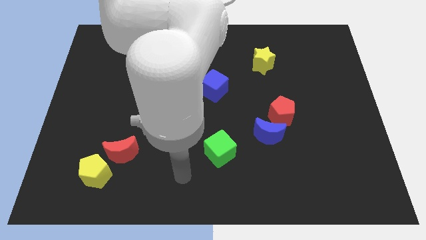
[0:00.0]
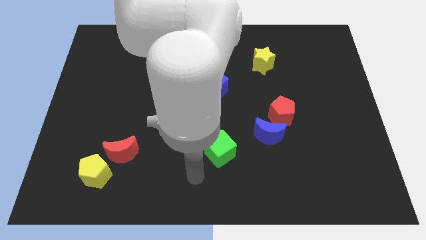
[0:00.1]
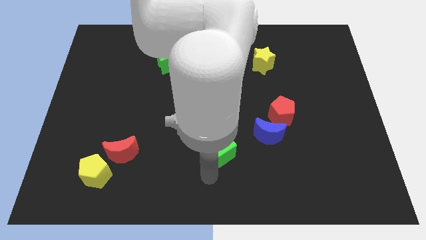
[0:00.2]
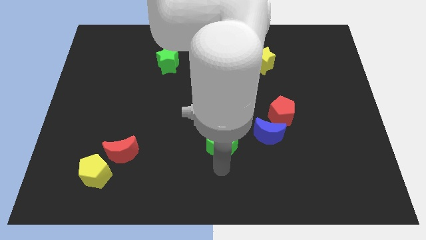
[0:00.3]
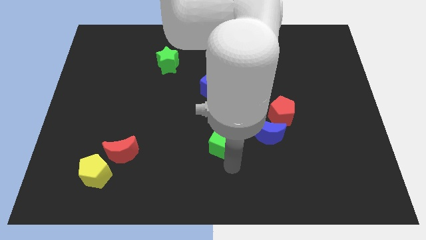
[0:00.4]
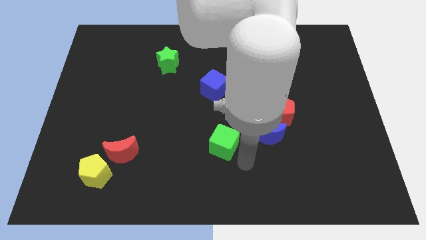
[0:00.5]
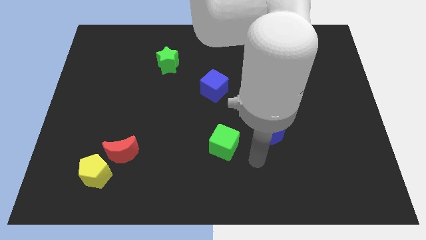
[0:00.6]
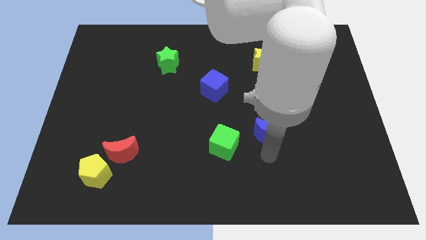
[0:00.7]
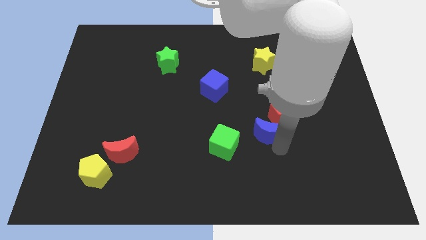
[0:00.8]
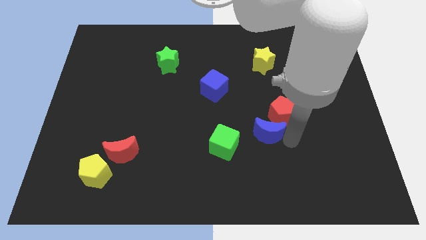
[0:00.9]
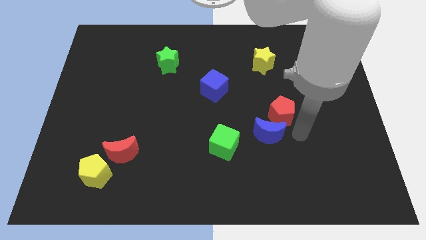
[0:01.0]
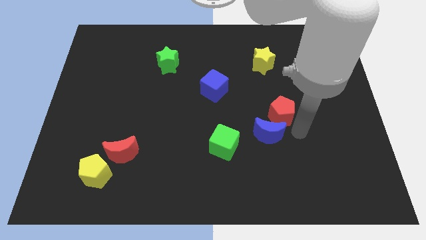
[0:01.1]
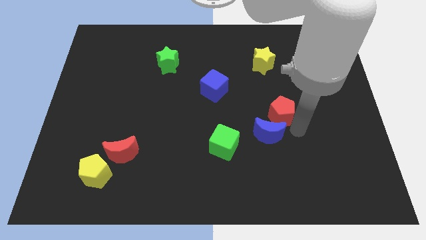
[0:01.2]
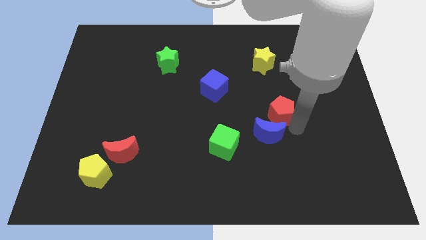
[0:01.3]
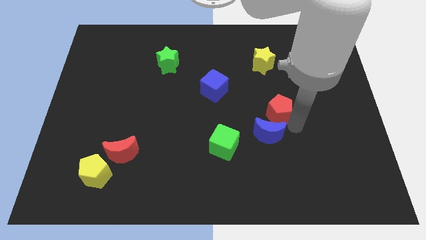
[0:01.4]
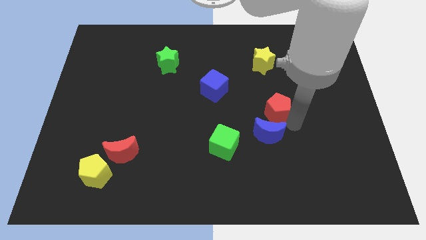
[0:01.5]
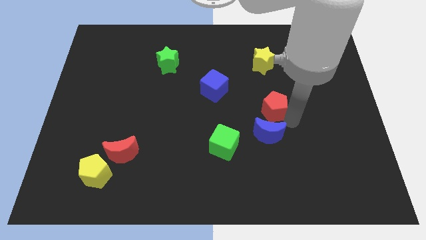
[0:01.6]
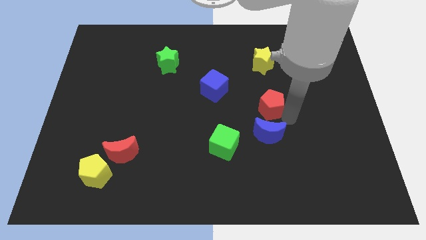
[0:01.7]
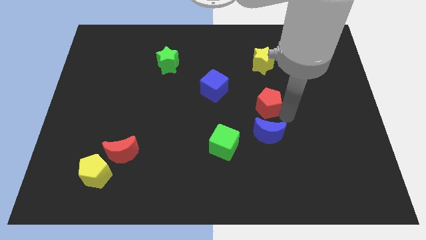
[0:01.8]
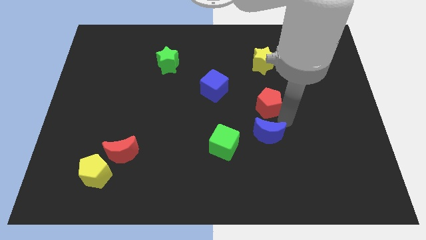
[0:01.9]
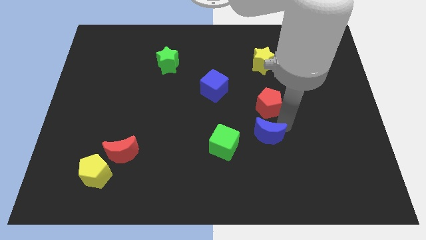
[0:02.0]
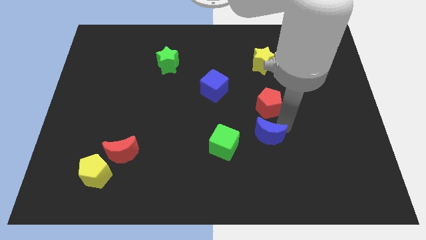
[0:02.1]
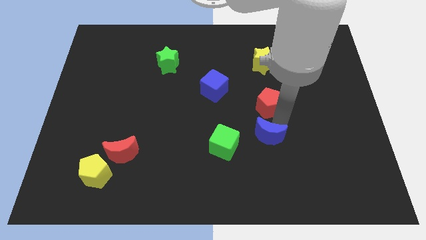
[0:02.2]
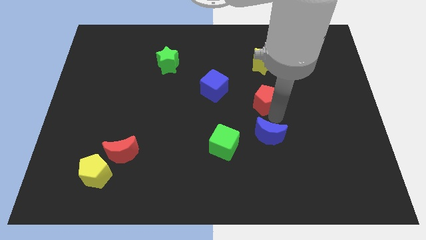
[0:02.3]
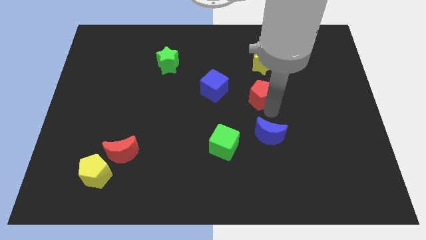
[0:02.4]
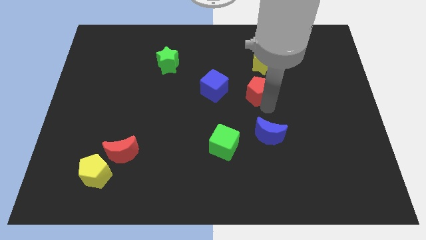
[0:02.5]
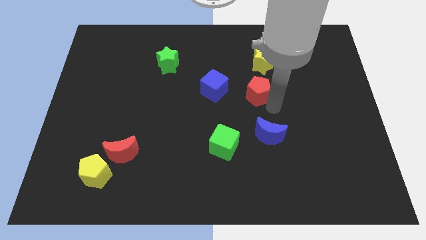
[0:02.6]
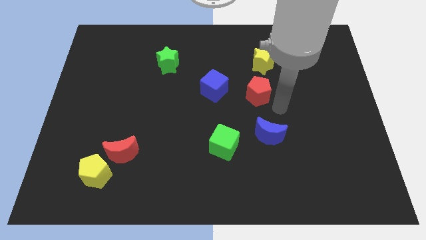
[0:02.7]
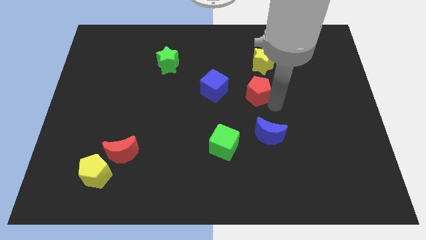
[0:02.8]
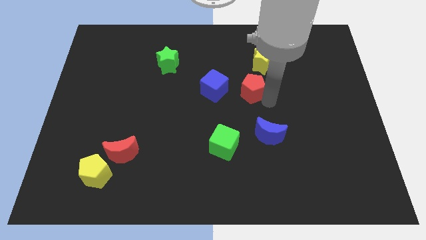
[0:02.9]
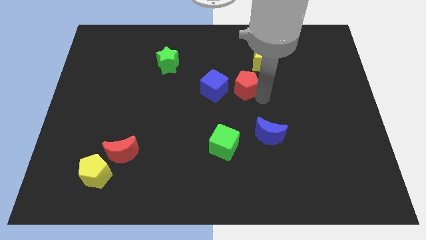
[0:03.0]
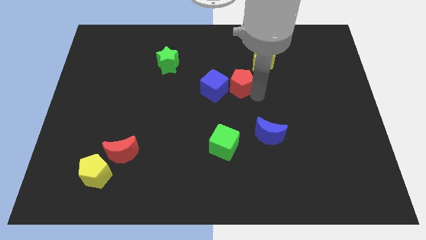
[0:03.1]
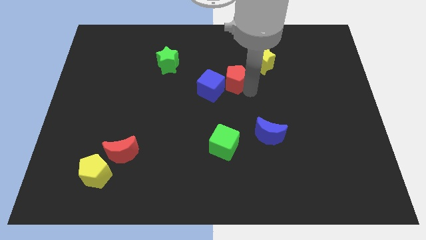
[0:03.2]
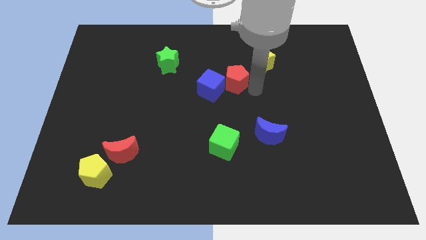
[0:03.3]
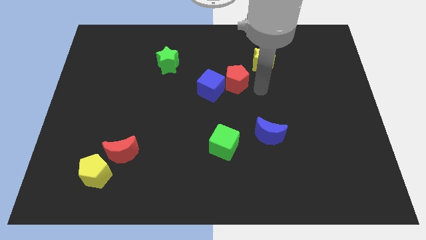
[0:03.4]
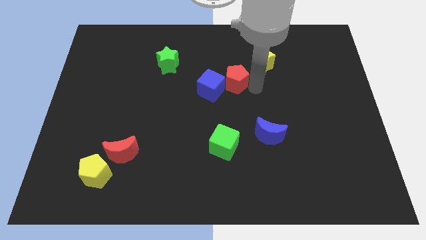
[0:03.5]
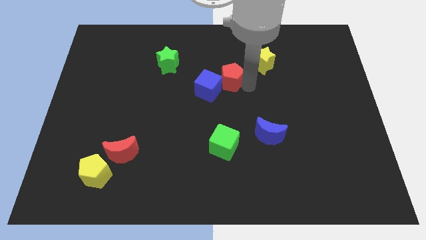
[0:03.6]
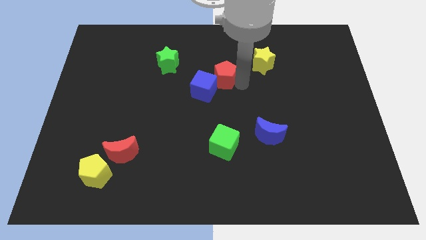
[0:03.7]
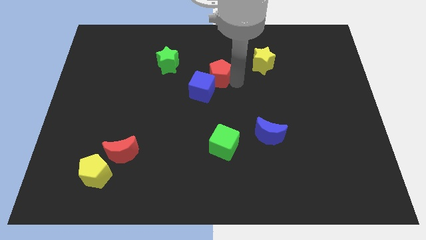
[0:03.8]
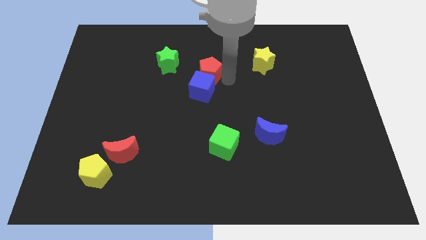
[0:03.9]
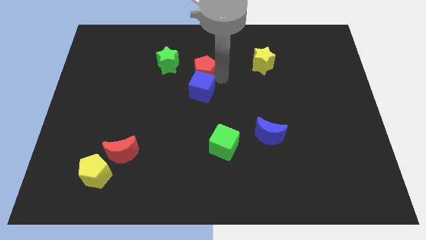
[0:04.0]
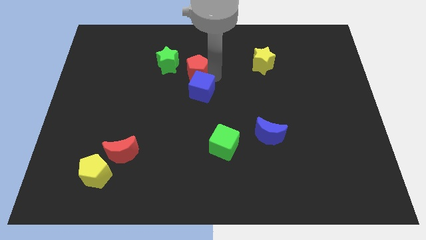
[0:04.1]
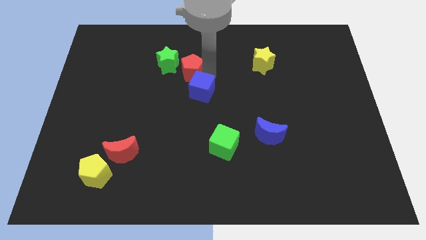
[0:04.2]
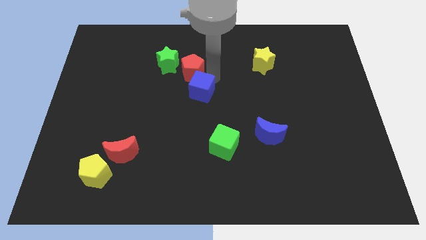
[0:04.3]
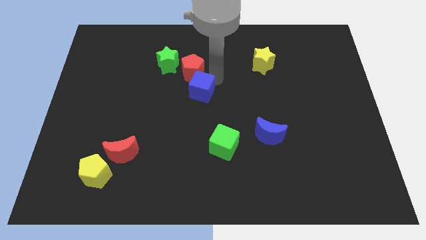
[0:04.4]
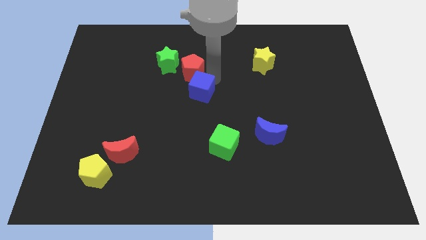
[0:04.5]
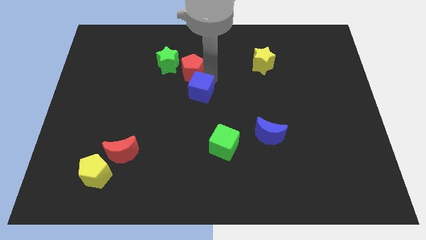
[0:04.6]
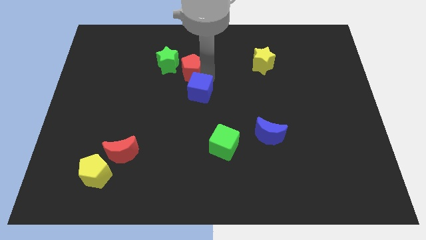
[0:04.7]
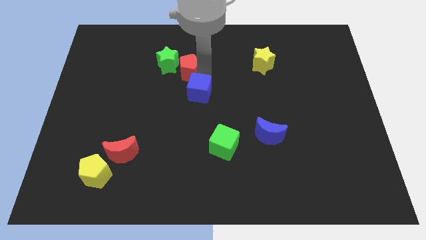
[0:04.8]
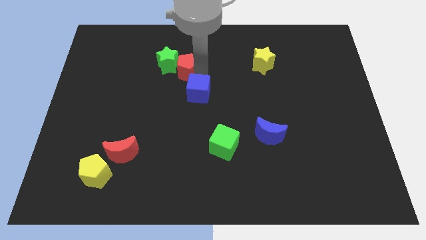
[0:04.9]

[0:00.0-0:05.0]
put the red pentagon next to the green star

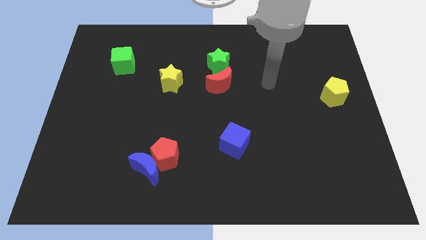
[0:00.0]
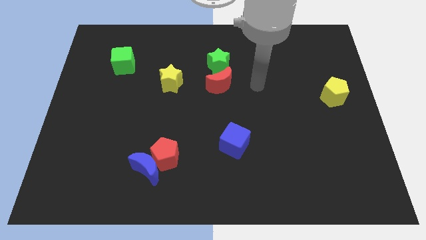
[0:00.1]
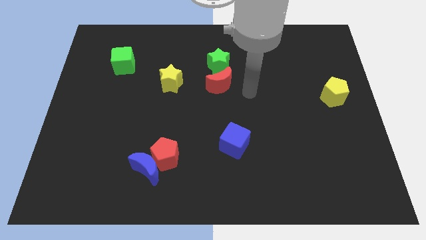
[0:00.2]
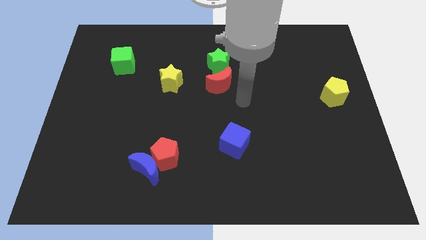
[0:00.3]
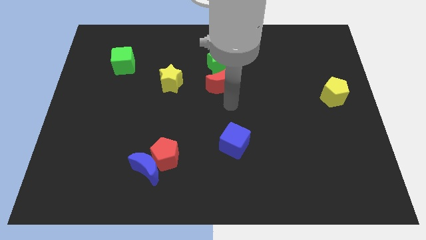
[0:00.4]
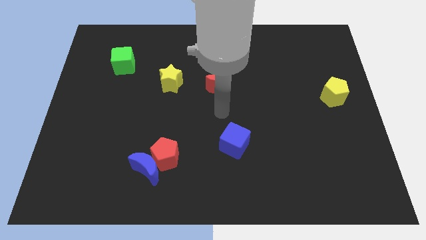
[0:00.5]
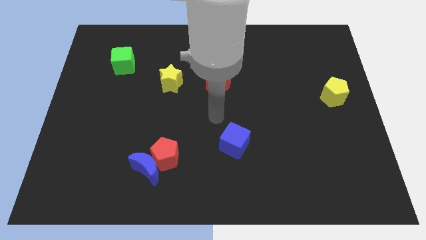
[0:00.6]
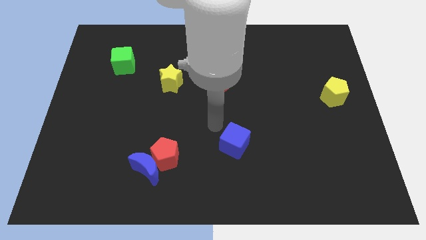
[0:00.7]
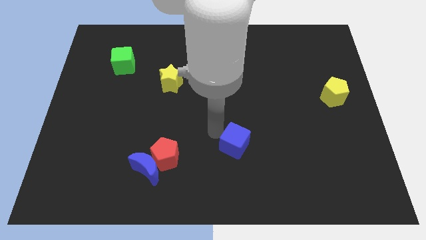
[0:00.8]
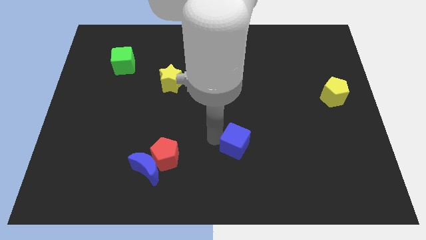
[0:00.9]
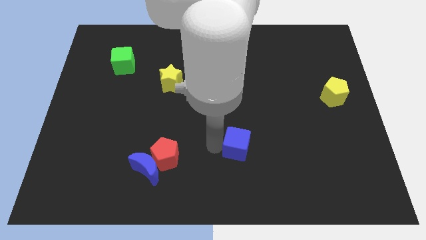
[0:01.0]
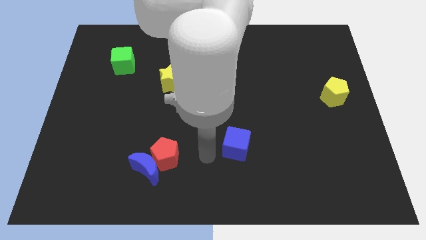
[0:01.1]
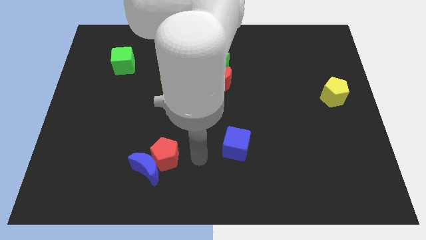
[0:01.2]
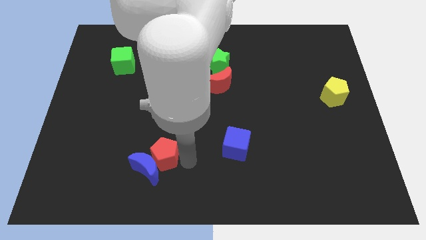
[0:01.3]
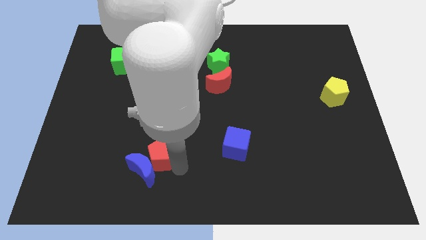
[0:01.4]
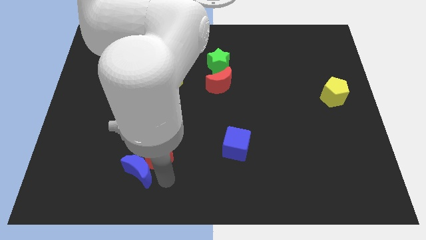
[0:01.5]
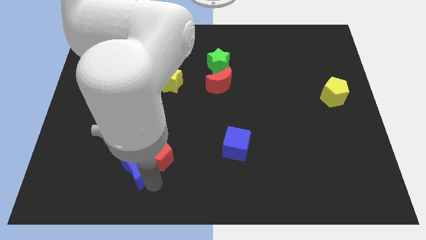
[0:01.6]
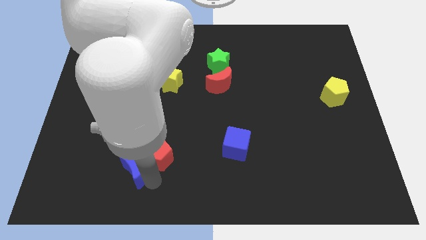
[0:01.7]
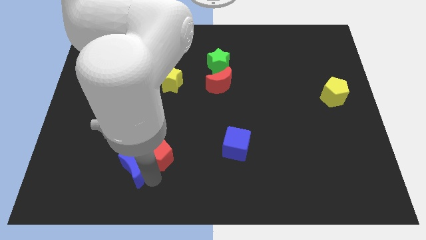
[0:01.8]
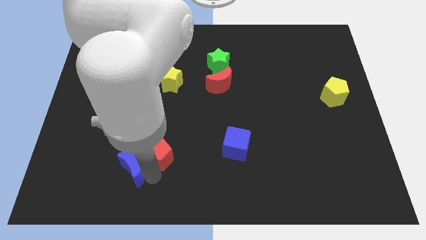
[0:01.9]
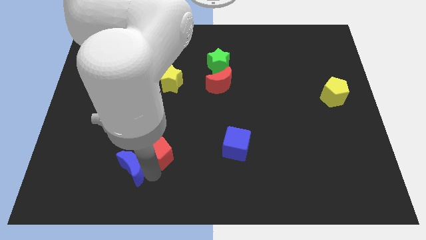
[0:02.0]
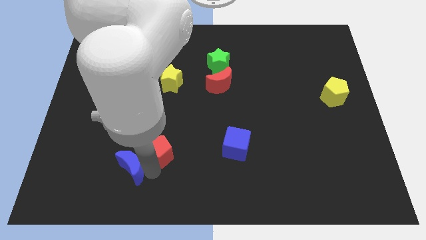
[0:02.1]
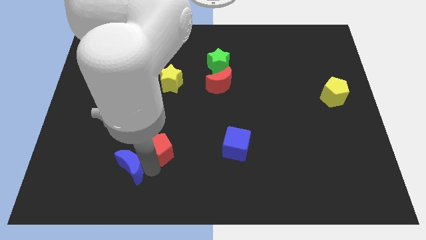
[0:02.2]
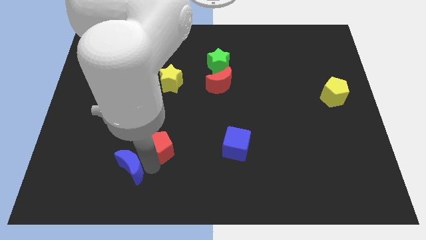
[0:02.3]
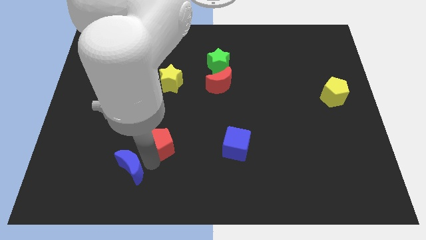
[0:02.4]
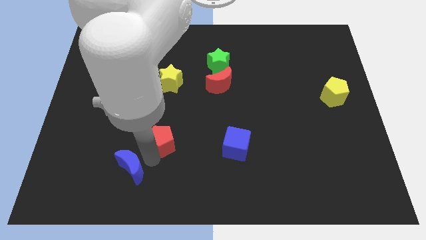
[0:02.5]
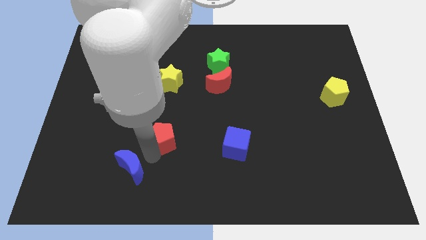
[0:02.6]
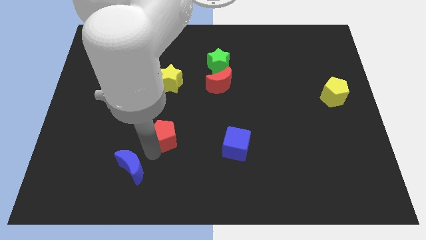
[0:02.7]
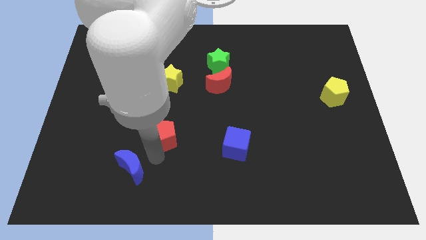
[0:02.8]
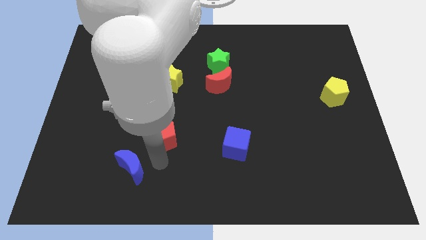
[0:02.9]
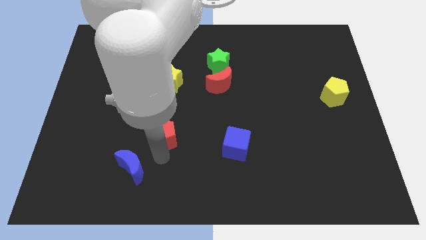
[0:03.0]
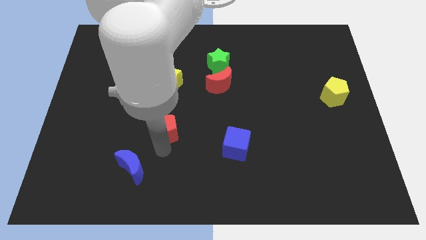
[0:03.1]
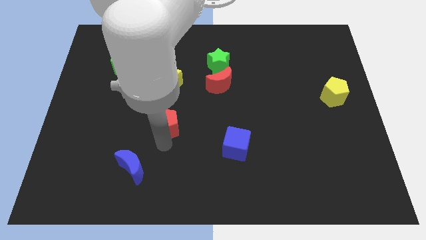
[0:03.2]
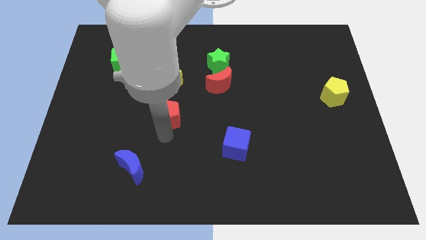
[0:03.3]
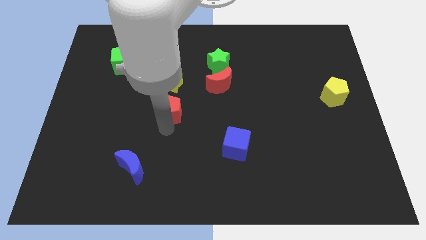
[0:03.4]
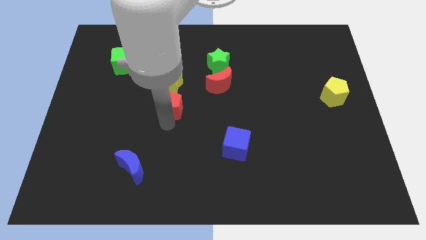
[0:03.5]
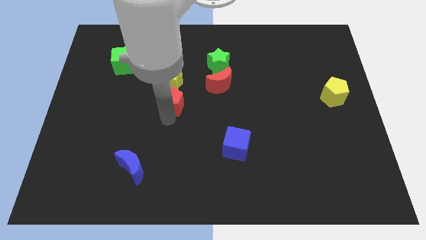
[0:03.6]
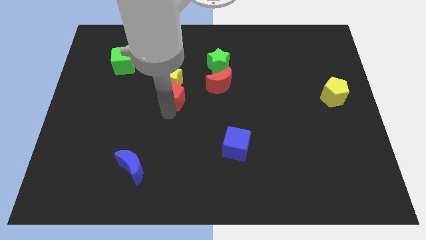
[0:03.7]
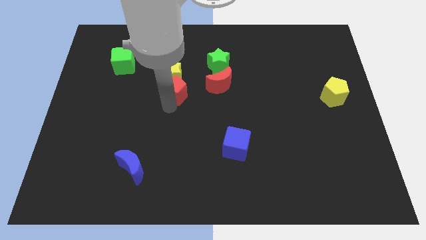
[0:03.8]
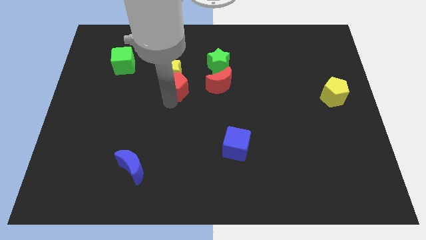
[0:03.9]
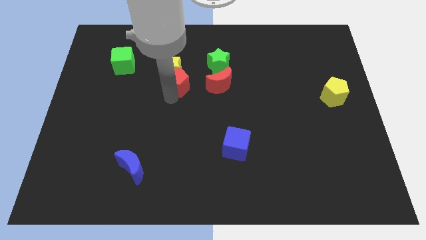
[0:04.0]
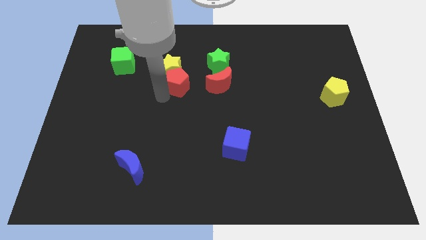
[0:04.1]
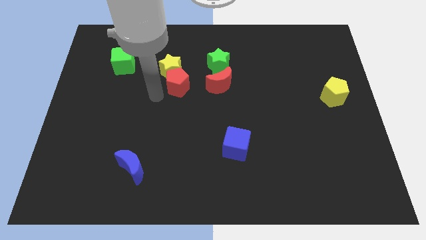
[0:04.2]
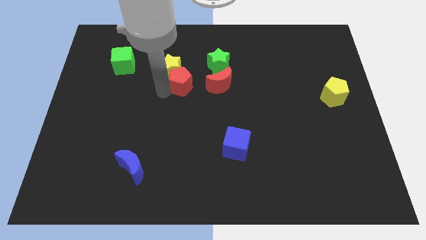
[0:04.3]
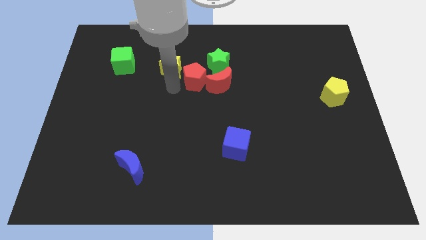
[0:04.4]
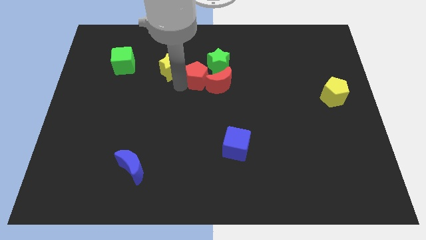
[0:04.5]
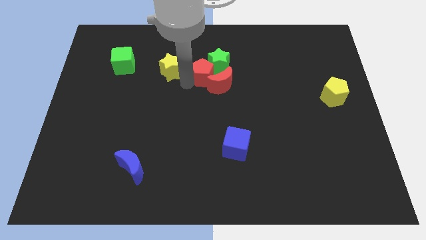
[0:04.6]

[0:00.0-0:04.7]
slide the red pentagon next to the green star
